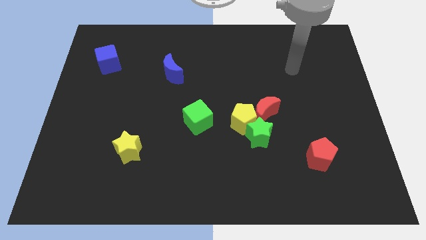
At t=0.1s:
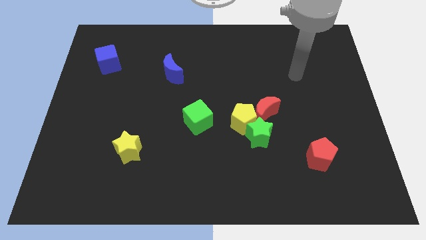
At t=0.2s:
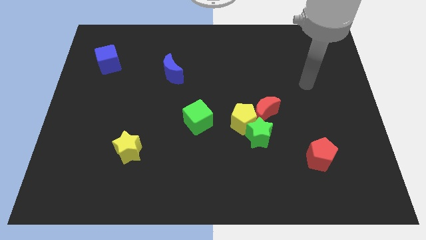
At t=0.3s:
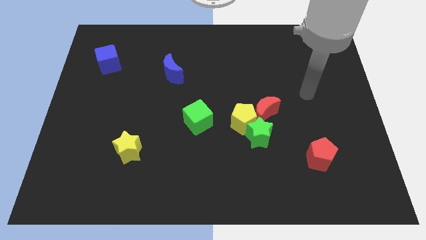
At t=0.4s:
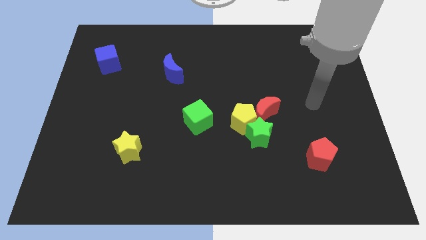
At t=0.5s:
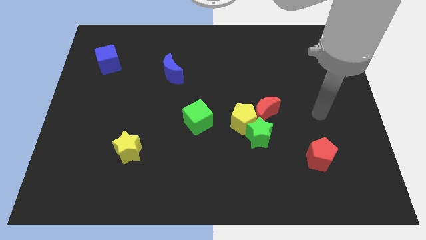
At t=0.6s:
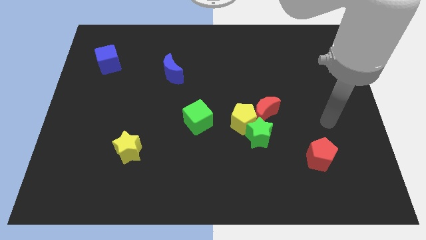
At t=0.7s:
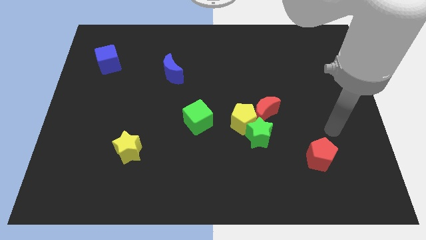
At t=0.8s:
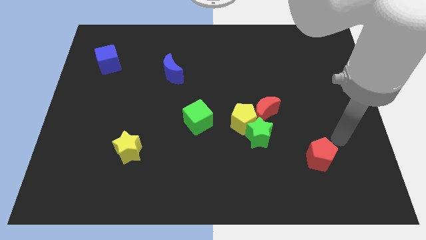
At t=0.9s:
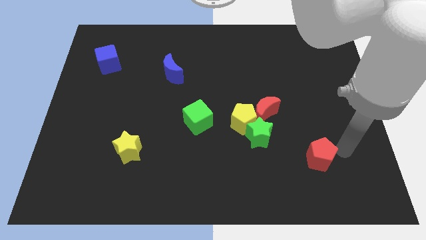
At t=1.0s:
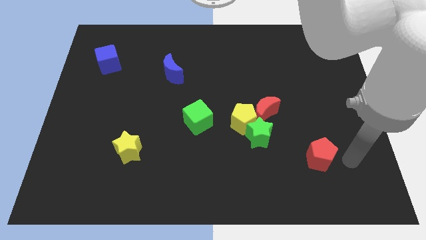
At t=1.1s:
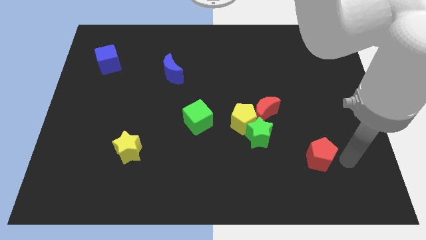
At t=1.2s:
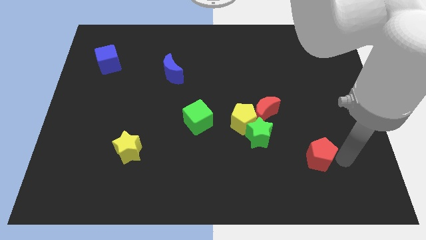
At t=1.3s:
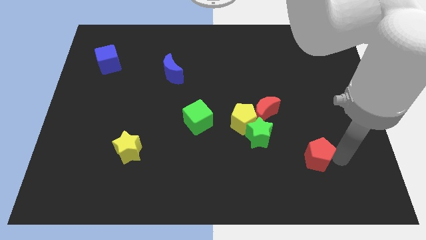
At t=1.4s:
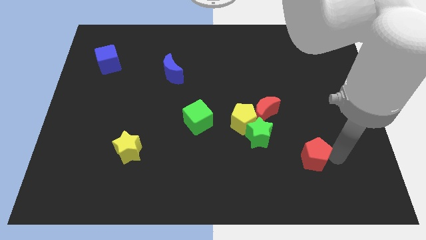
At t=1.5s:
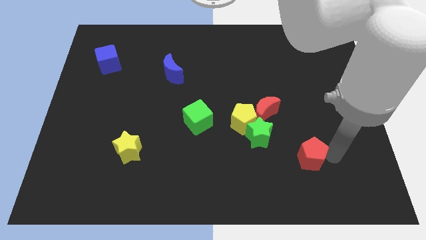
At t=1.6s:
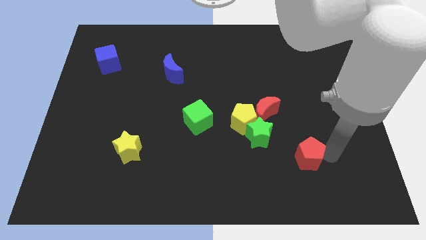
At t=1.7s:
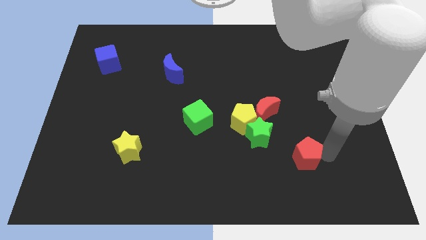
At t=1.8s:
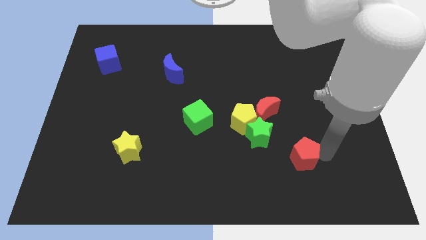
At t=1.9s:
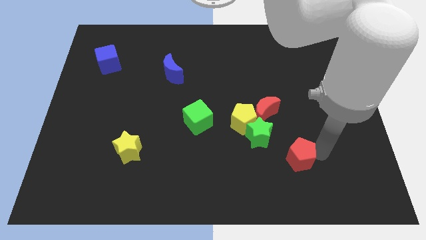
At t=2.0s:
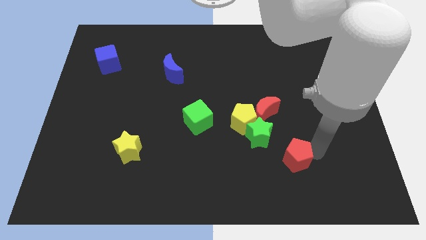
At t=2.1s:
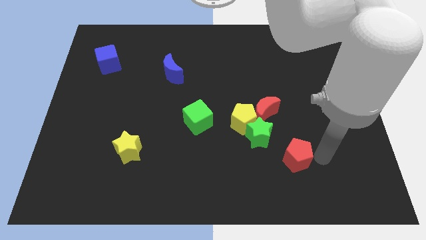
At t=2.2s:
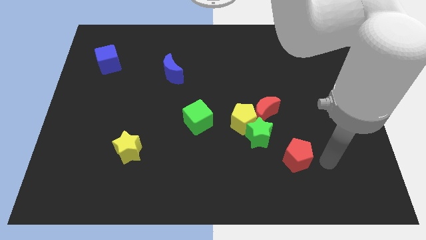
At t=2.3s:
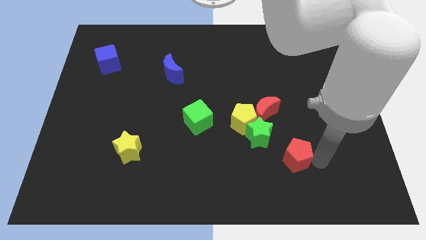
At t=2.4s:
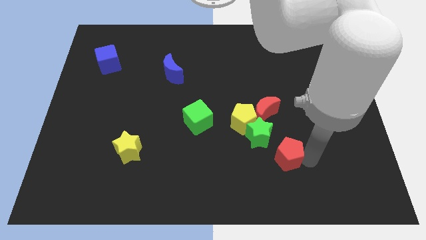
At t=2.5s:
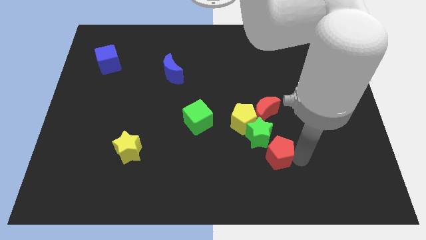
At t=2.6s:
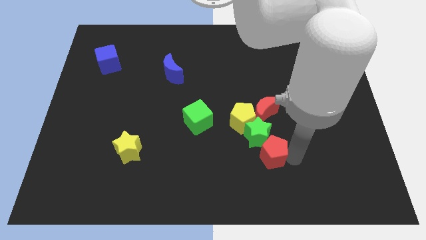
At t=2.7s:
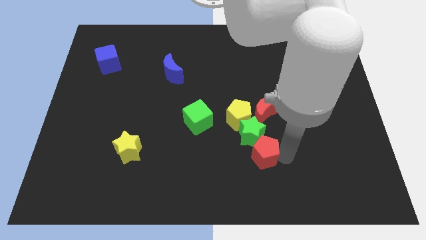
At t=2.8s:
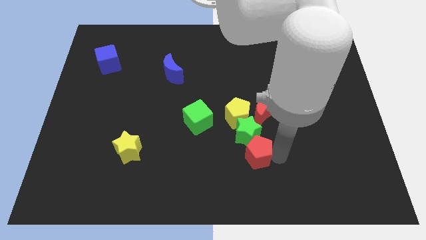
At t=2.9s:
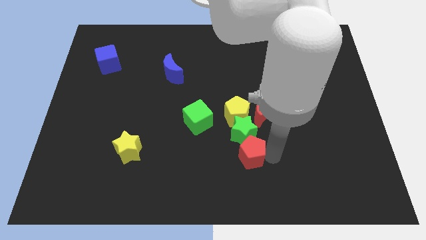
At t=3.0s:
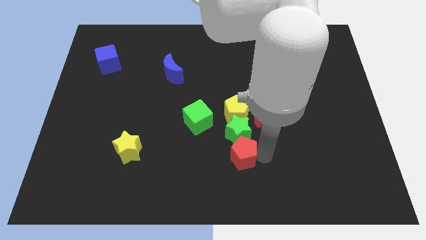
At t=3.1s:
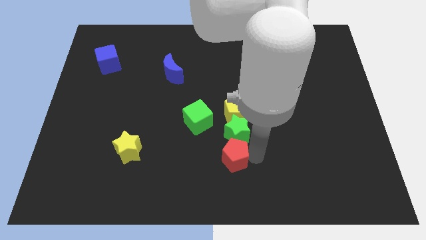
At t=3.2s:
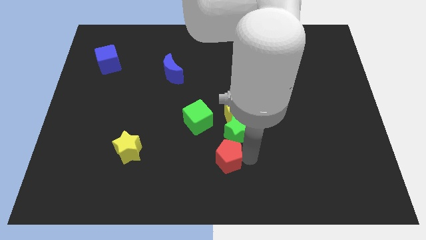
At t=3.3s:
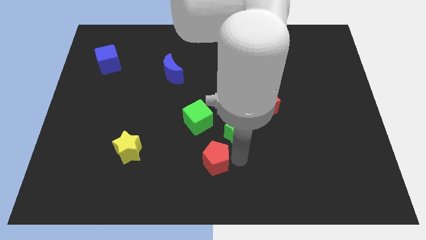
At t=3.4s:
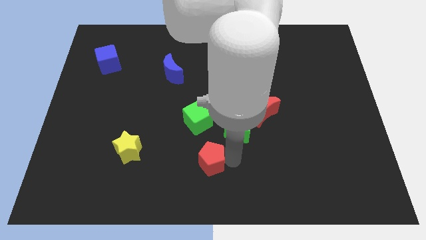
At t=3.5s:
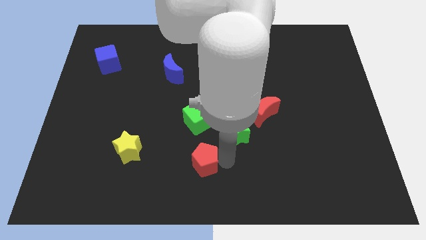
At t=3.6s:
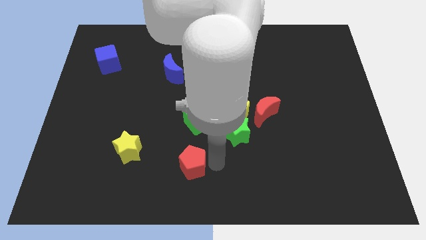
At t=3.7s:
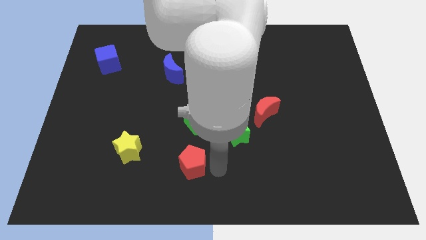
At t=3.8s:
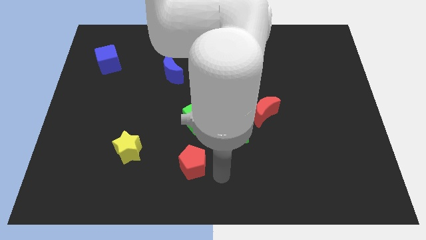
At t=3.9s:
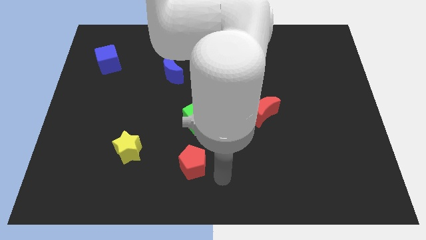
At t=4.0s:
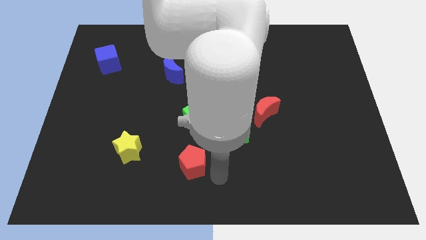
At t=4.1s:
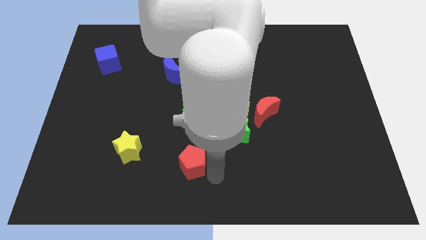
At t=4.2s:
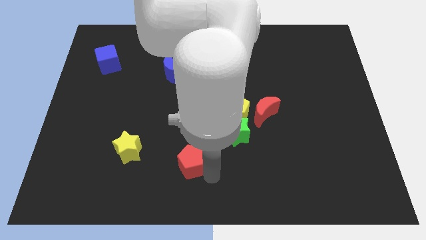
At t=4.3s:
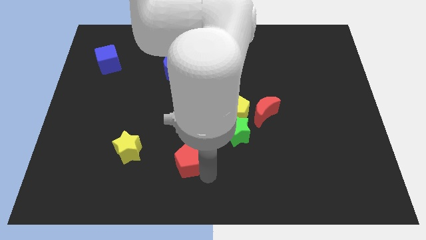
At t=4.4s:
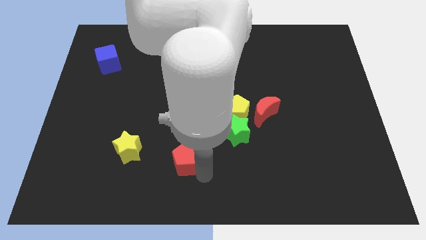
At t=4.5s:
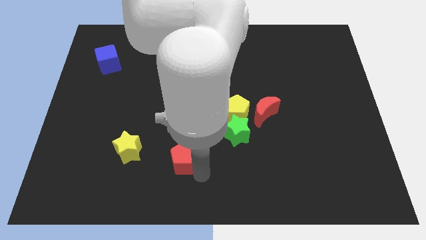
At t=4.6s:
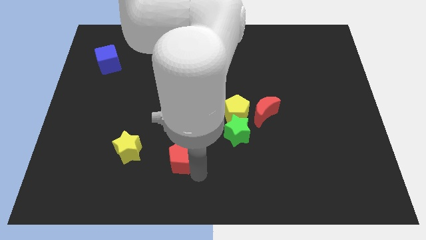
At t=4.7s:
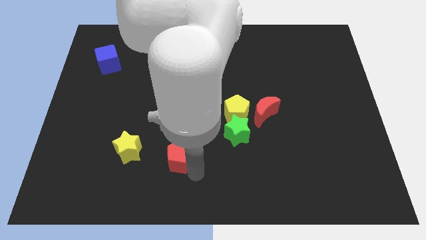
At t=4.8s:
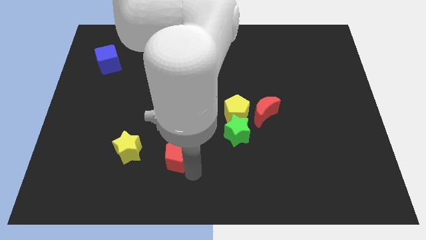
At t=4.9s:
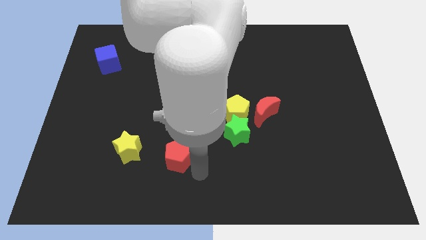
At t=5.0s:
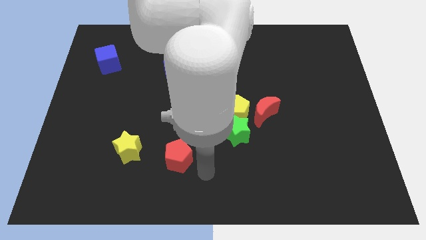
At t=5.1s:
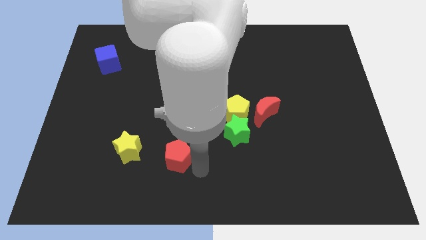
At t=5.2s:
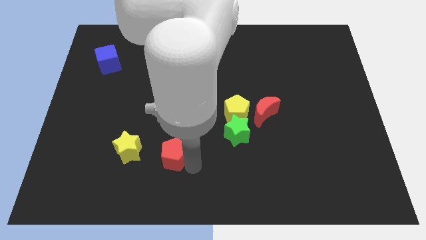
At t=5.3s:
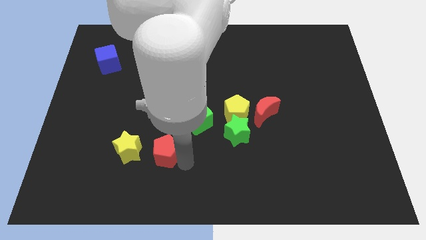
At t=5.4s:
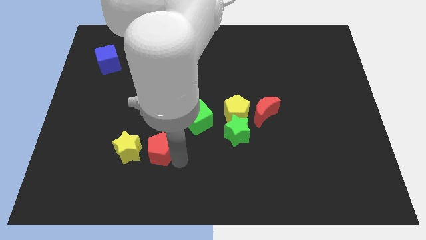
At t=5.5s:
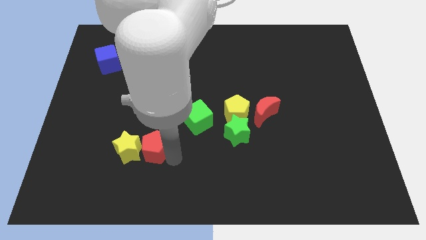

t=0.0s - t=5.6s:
move the red pentagon to the yellow star

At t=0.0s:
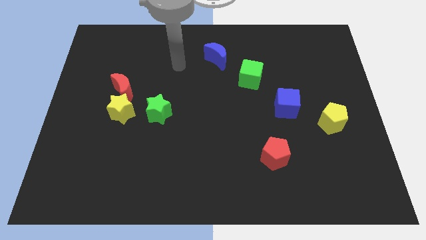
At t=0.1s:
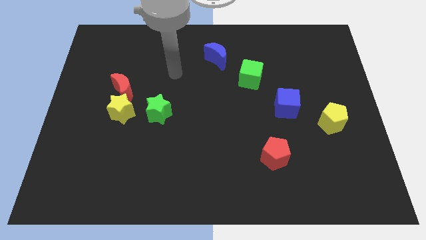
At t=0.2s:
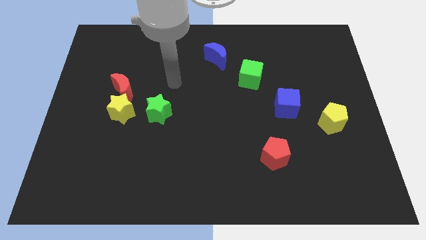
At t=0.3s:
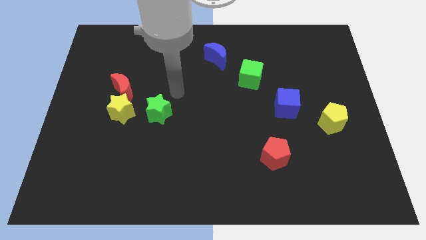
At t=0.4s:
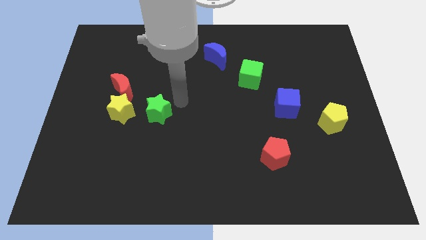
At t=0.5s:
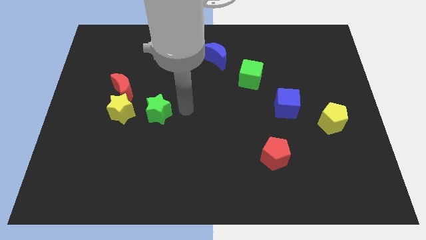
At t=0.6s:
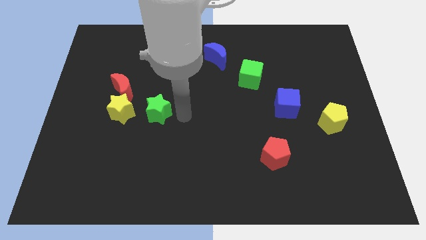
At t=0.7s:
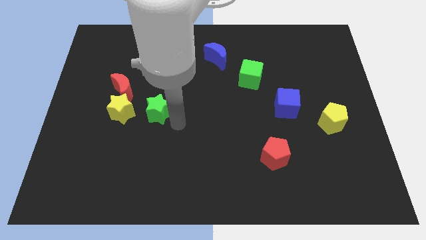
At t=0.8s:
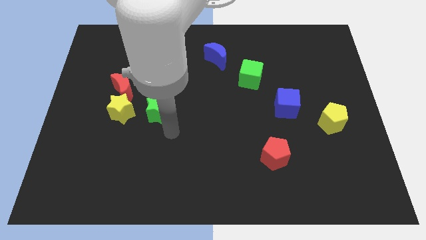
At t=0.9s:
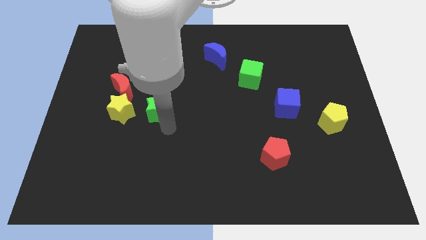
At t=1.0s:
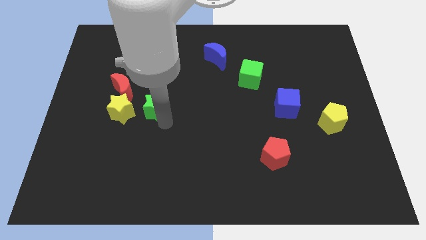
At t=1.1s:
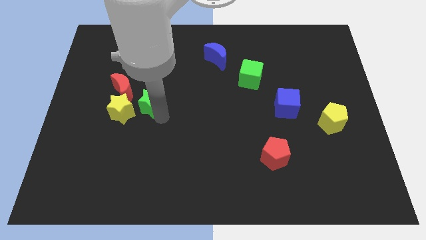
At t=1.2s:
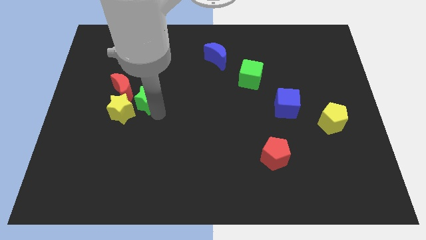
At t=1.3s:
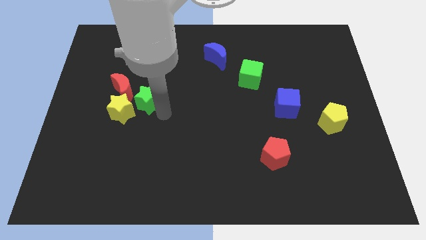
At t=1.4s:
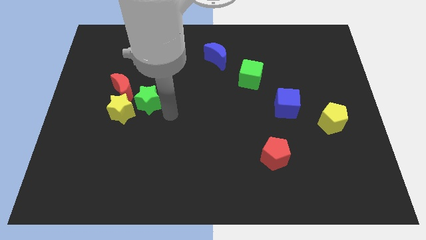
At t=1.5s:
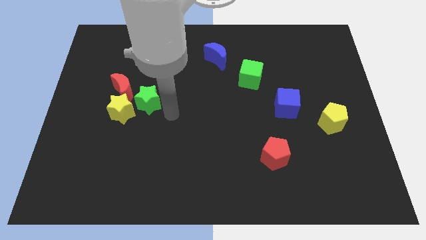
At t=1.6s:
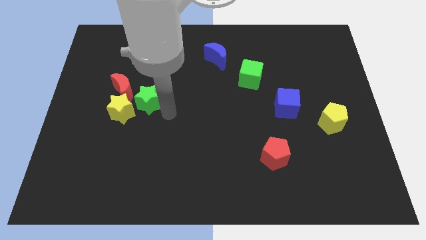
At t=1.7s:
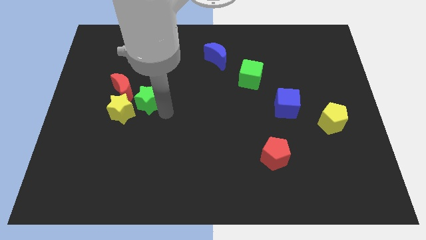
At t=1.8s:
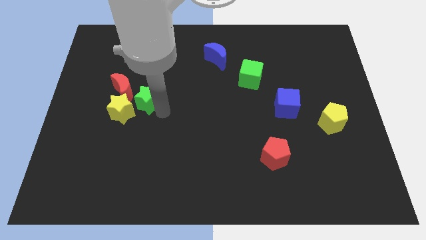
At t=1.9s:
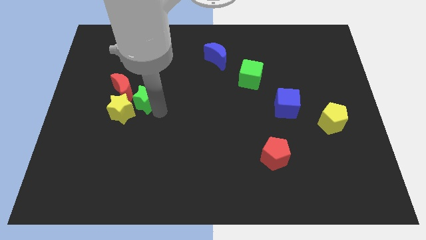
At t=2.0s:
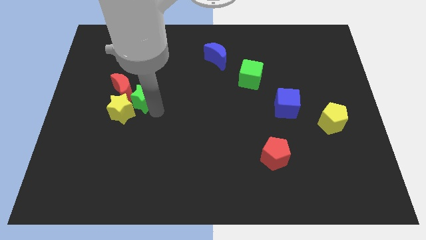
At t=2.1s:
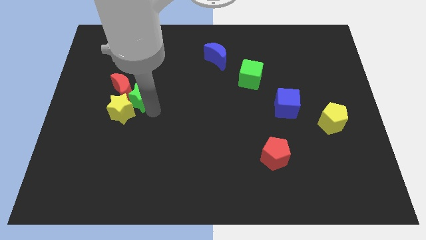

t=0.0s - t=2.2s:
move the green star close to the red moon
